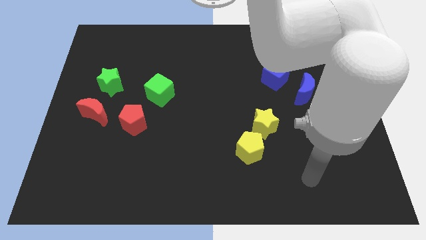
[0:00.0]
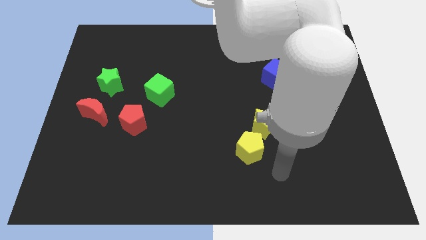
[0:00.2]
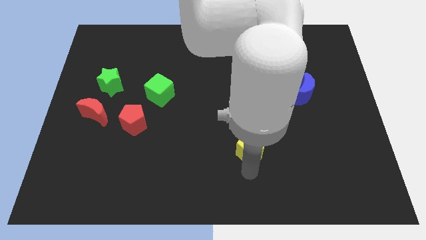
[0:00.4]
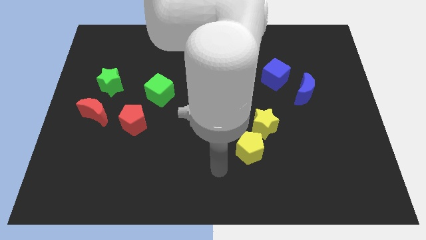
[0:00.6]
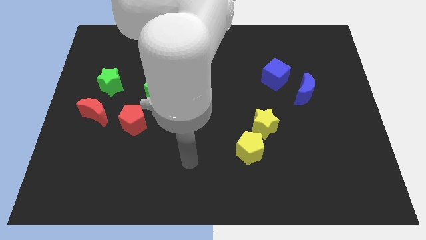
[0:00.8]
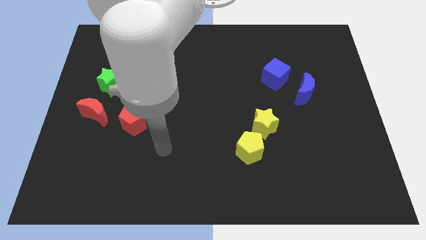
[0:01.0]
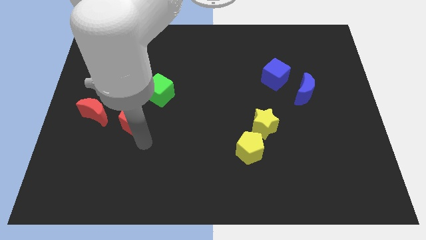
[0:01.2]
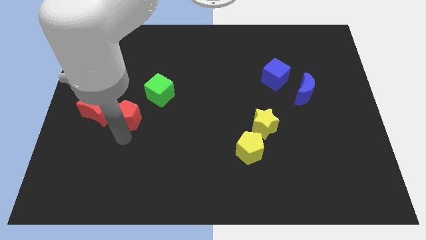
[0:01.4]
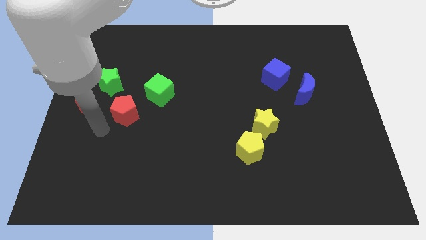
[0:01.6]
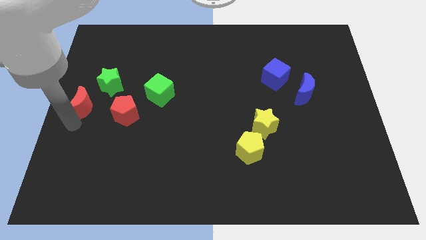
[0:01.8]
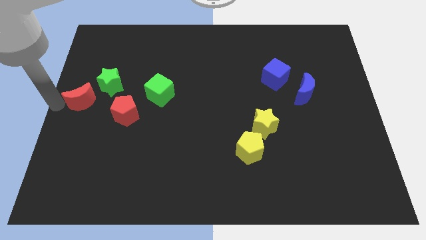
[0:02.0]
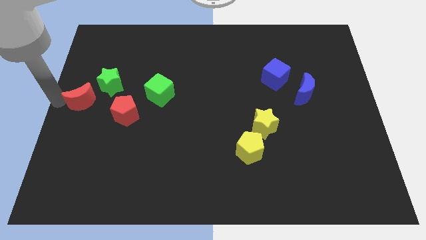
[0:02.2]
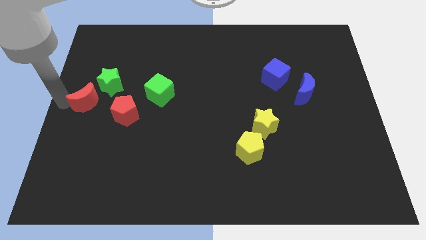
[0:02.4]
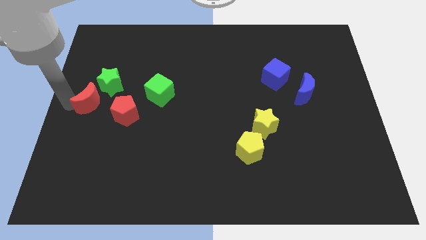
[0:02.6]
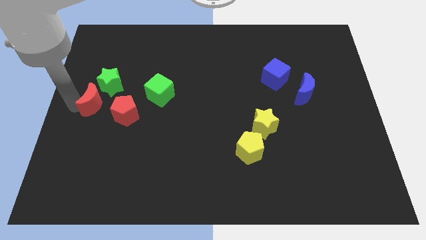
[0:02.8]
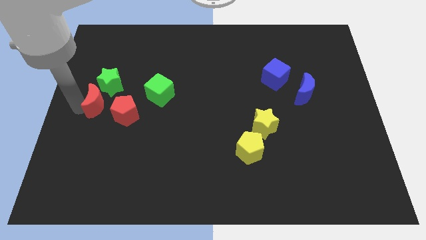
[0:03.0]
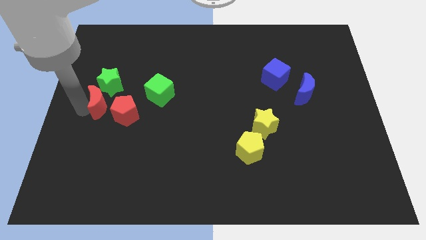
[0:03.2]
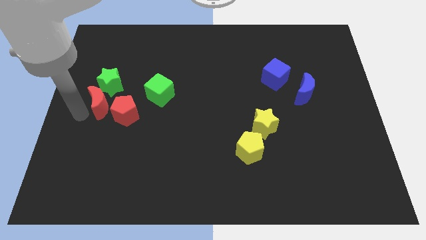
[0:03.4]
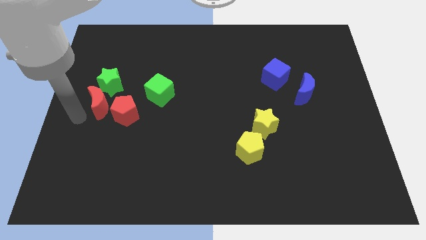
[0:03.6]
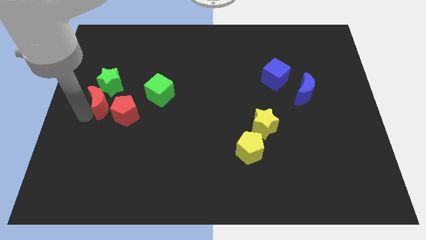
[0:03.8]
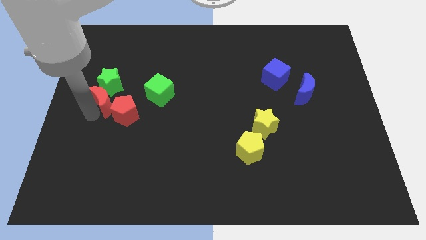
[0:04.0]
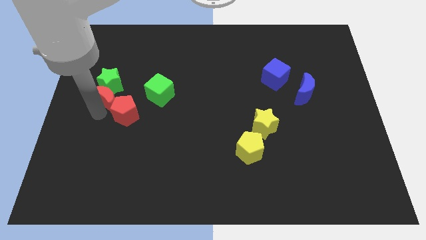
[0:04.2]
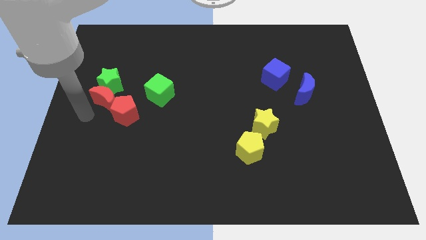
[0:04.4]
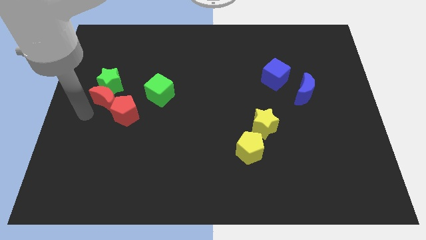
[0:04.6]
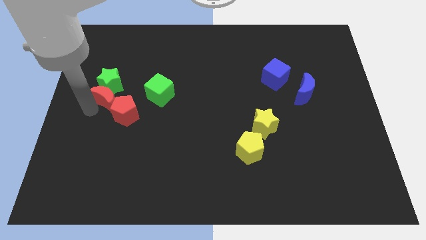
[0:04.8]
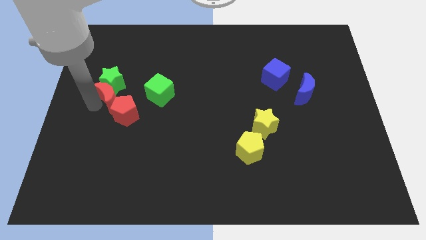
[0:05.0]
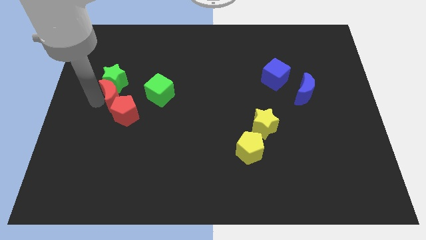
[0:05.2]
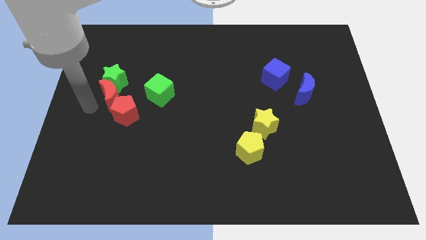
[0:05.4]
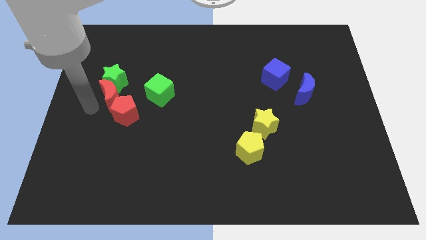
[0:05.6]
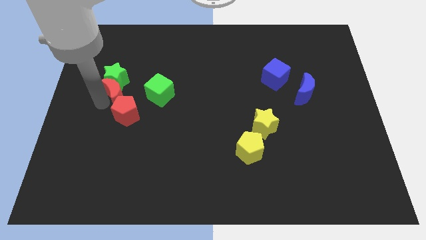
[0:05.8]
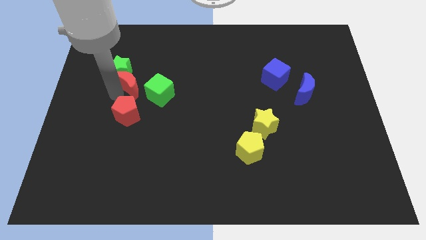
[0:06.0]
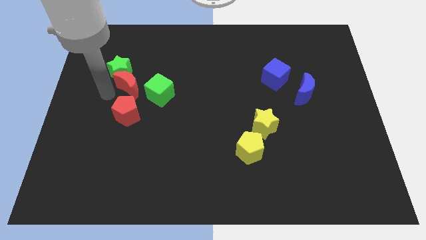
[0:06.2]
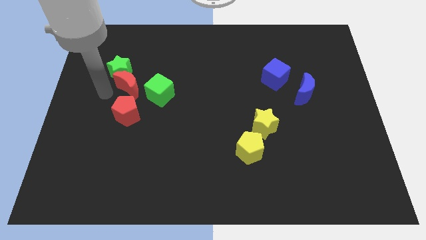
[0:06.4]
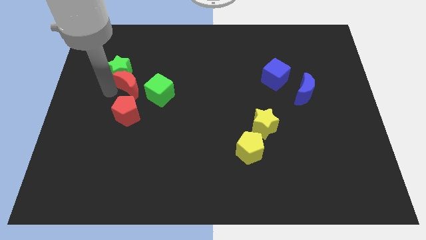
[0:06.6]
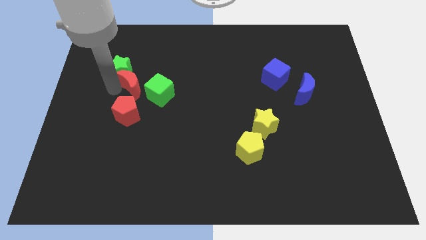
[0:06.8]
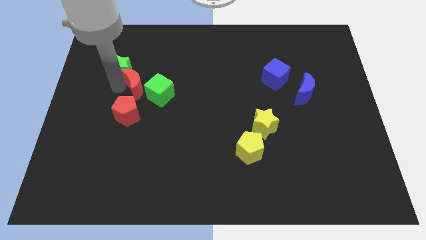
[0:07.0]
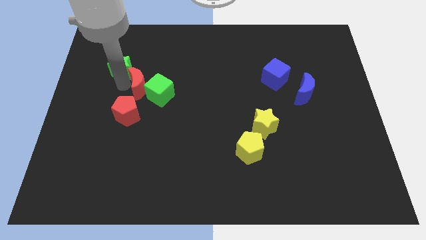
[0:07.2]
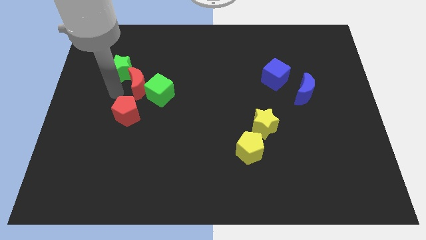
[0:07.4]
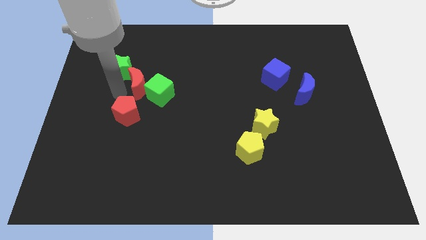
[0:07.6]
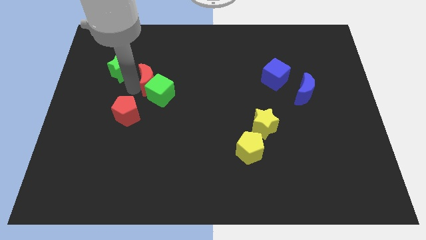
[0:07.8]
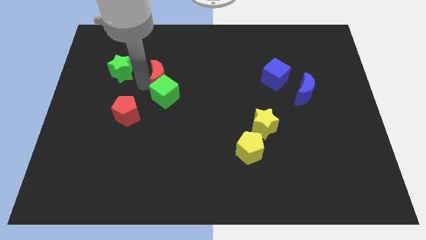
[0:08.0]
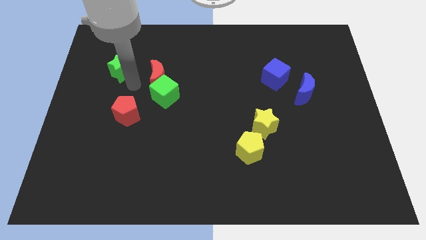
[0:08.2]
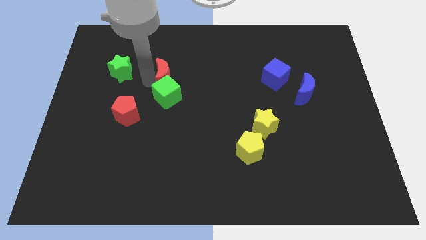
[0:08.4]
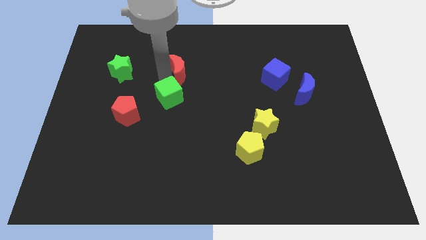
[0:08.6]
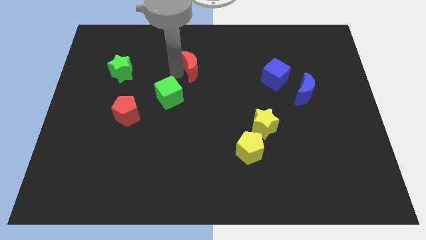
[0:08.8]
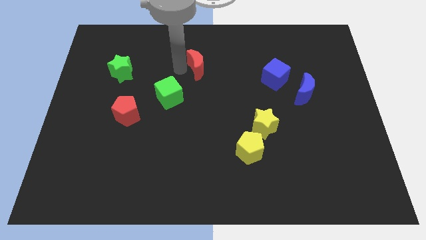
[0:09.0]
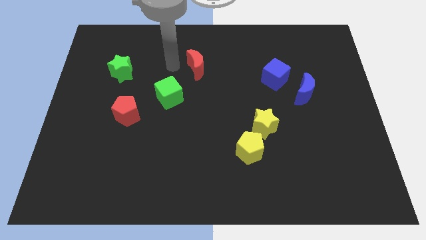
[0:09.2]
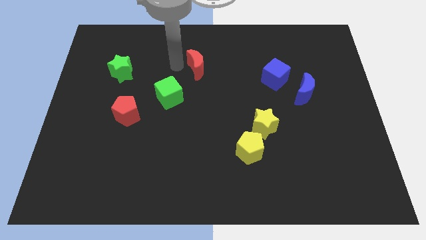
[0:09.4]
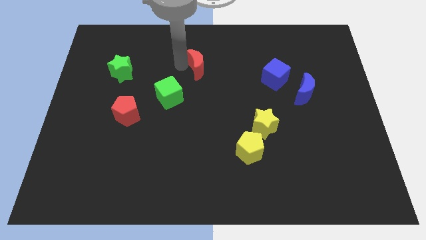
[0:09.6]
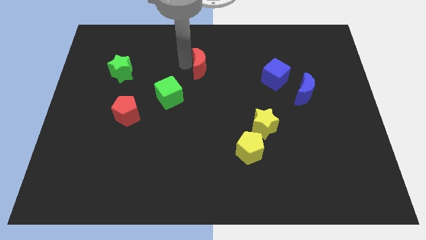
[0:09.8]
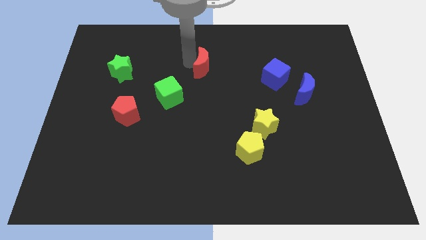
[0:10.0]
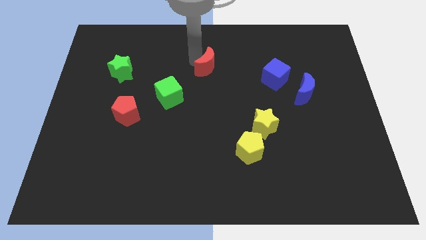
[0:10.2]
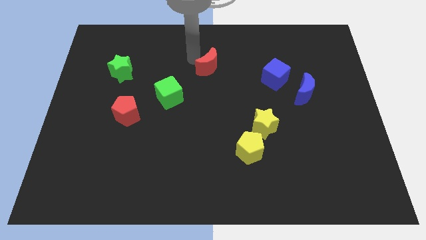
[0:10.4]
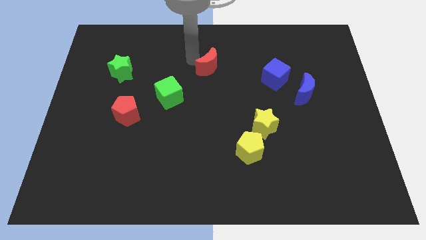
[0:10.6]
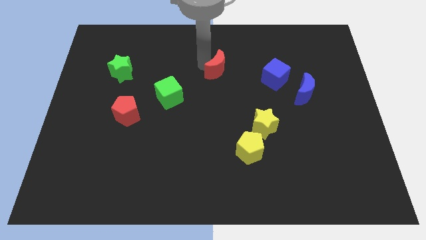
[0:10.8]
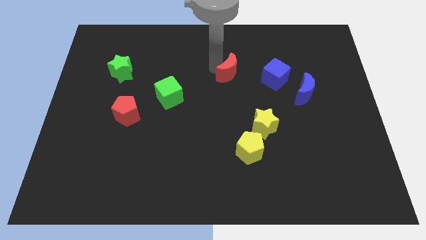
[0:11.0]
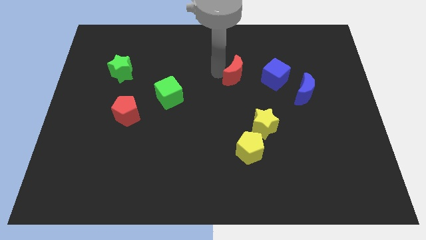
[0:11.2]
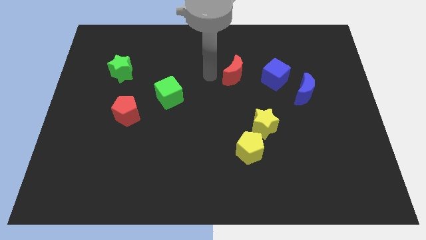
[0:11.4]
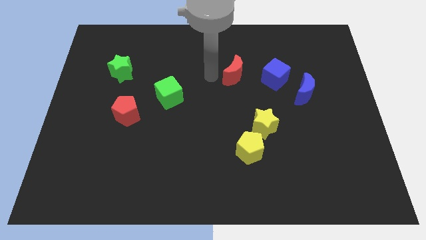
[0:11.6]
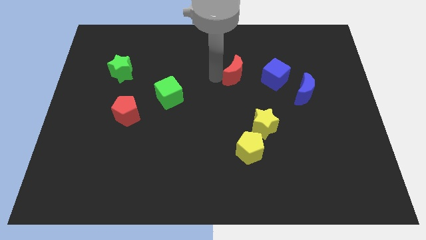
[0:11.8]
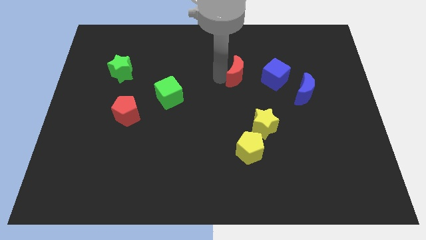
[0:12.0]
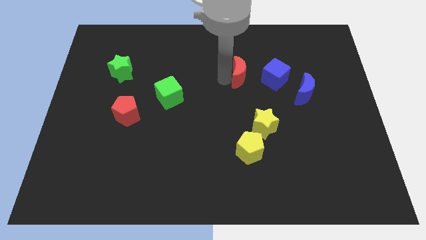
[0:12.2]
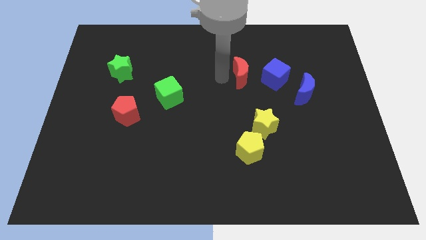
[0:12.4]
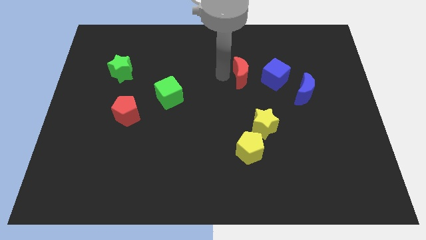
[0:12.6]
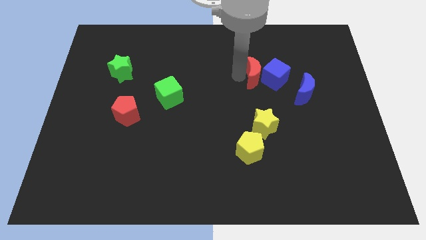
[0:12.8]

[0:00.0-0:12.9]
slide the red moon to the blue cube

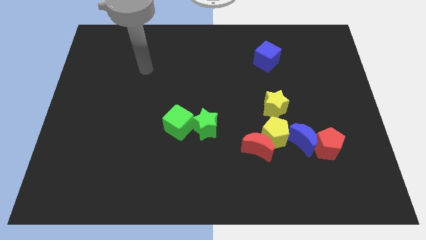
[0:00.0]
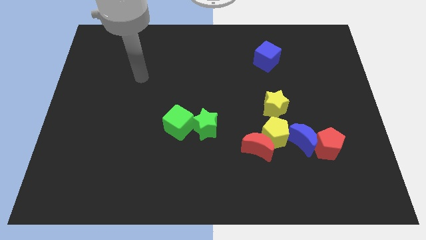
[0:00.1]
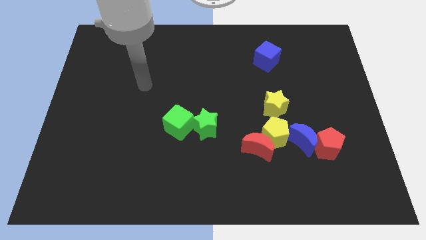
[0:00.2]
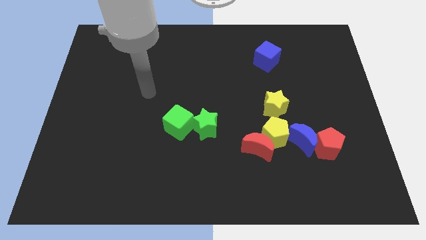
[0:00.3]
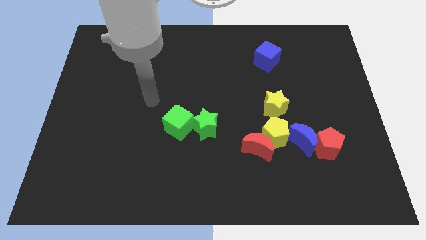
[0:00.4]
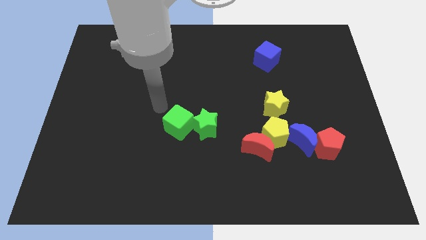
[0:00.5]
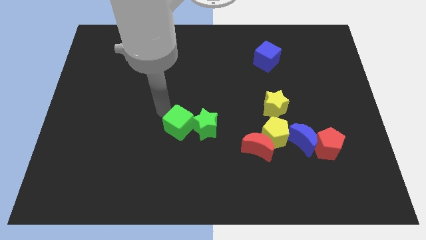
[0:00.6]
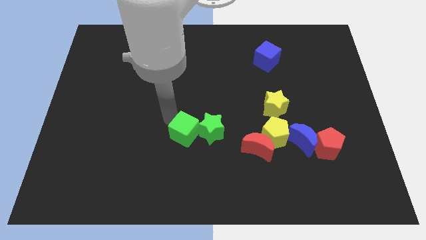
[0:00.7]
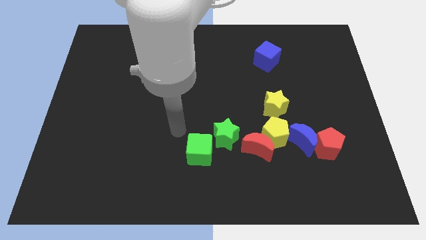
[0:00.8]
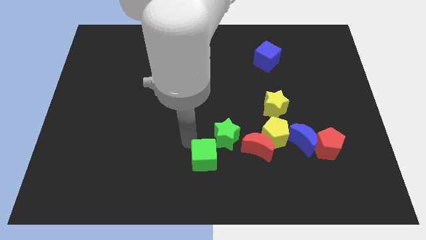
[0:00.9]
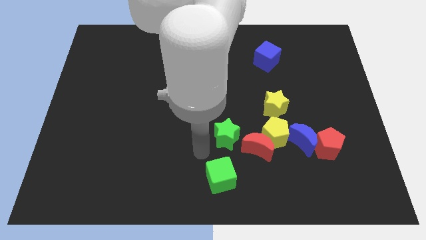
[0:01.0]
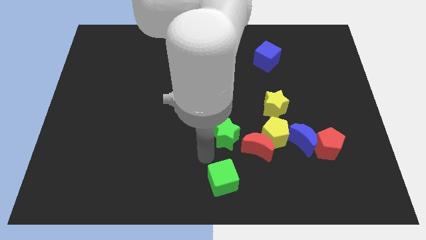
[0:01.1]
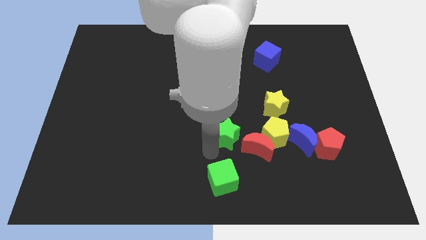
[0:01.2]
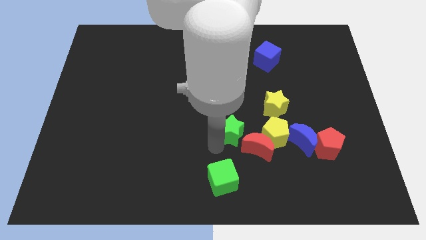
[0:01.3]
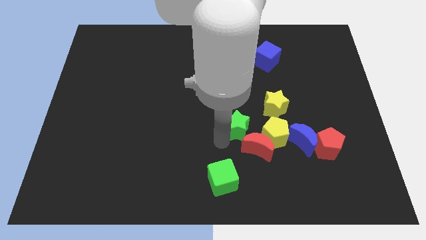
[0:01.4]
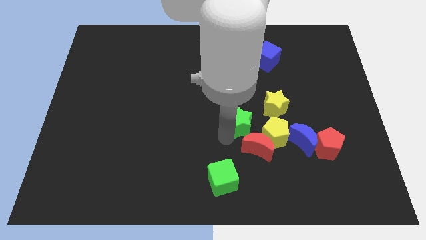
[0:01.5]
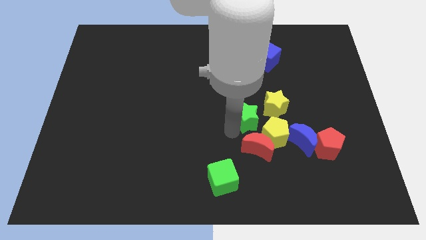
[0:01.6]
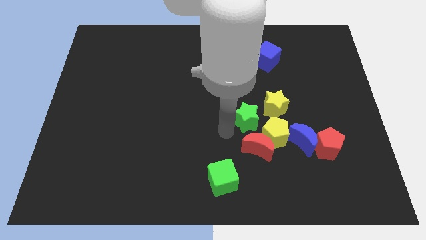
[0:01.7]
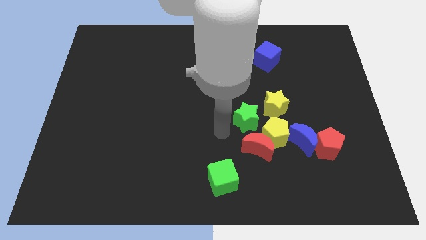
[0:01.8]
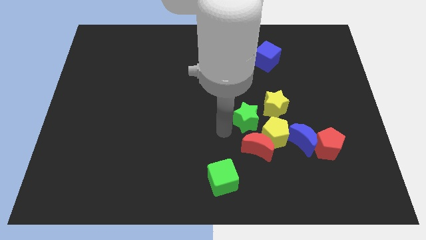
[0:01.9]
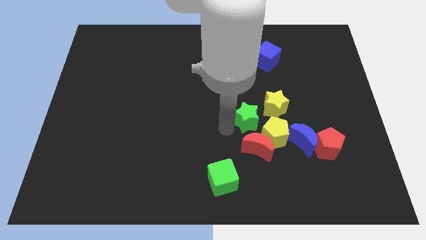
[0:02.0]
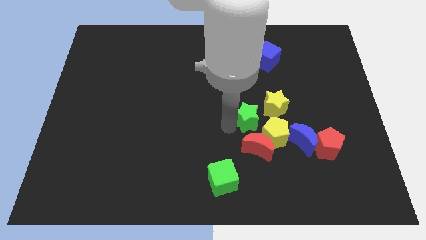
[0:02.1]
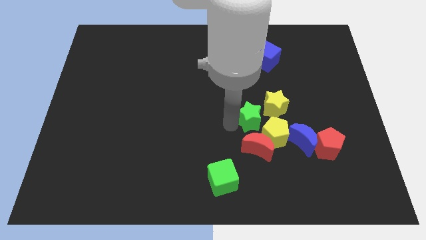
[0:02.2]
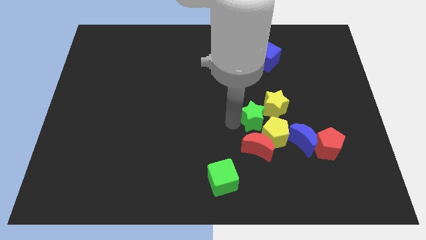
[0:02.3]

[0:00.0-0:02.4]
push the green star to the yellow star
